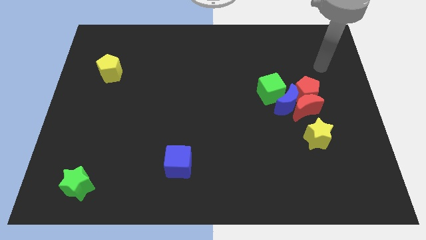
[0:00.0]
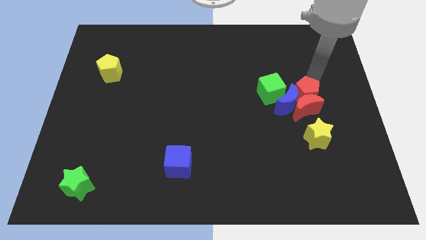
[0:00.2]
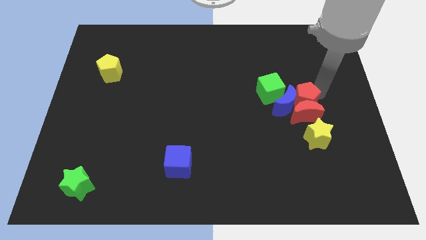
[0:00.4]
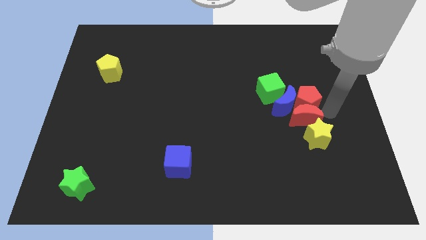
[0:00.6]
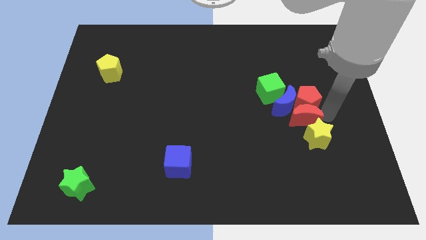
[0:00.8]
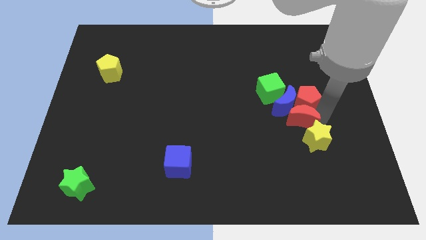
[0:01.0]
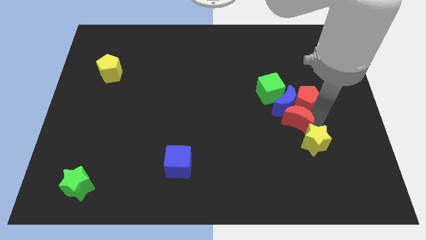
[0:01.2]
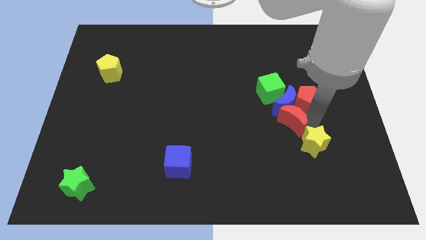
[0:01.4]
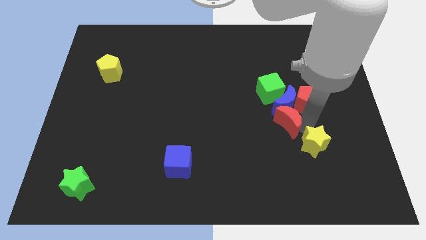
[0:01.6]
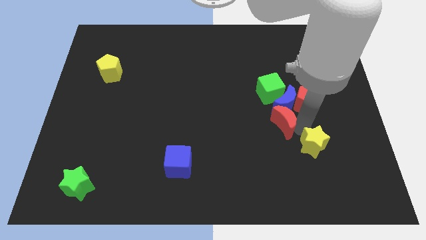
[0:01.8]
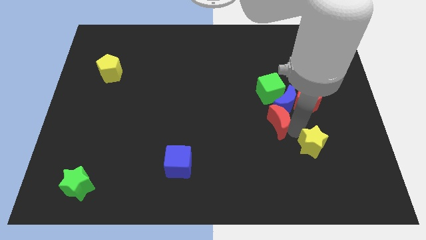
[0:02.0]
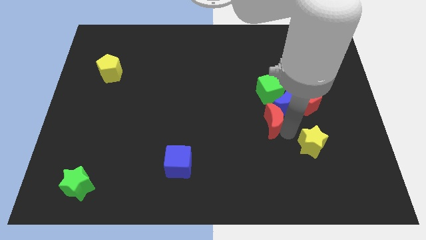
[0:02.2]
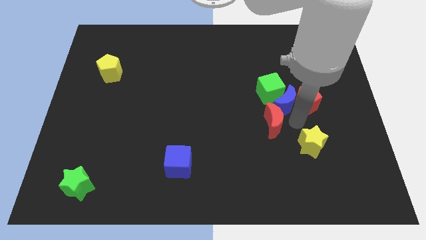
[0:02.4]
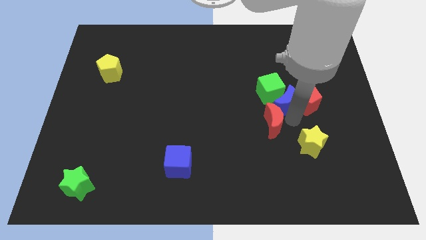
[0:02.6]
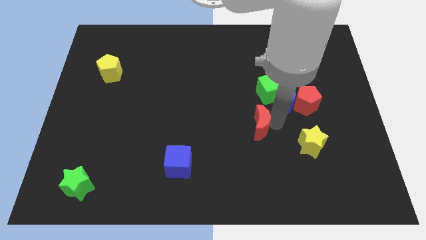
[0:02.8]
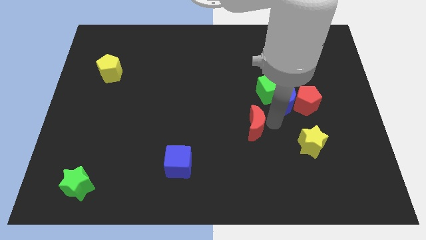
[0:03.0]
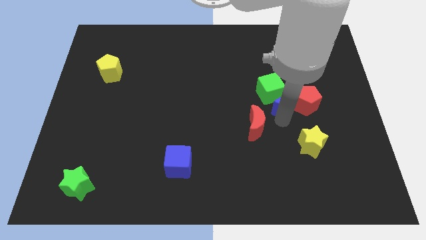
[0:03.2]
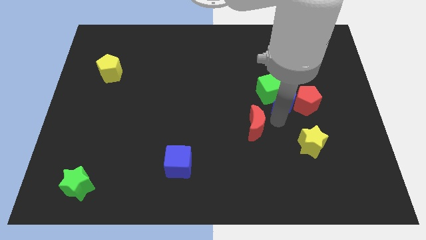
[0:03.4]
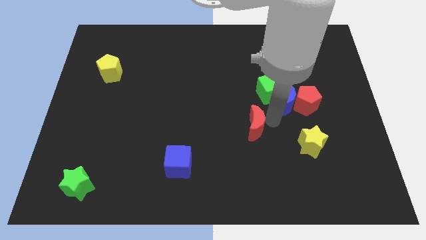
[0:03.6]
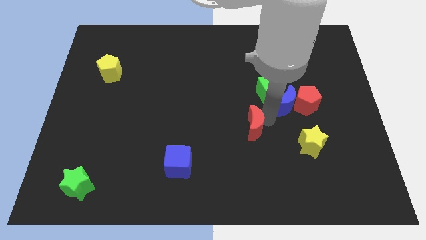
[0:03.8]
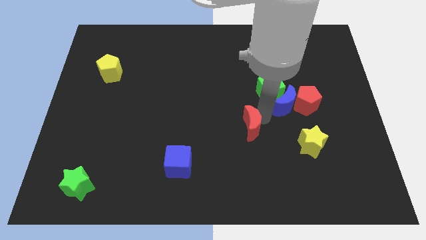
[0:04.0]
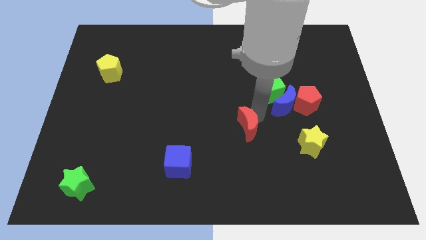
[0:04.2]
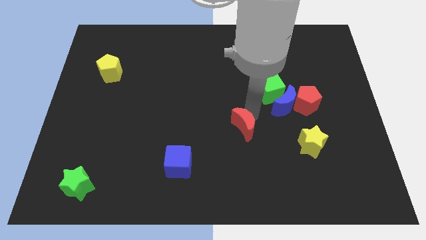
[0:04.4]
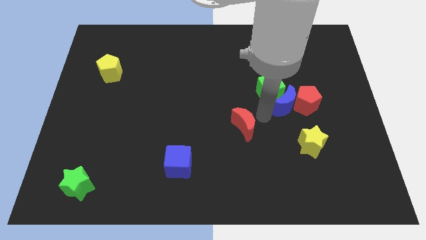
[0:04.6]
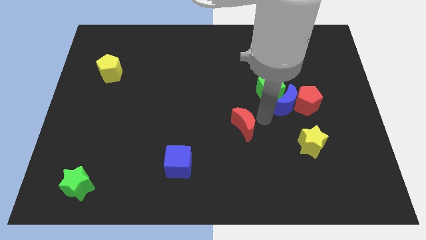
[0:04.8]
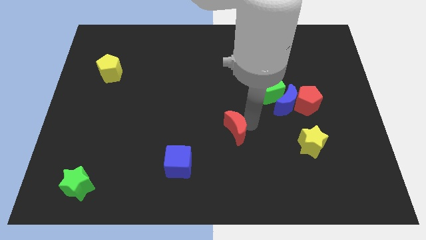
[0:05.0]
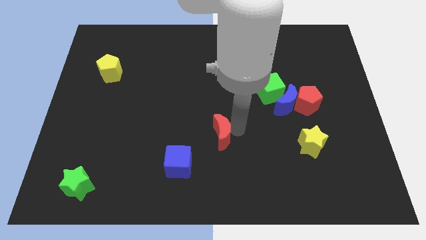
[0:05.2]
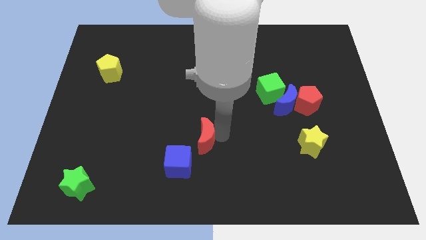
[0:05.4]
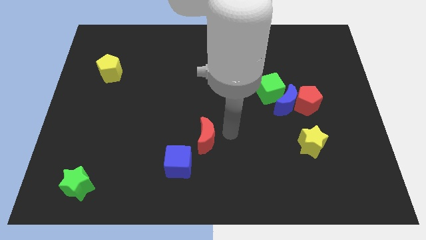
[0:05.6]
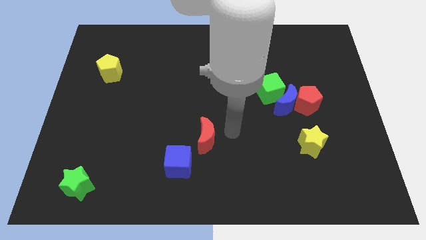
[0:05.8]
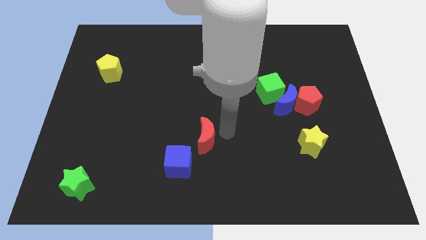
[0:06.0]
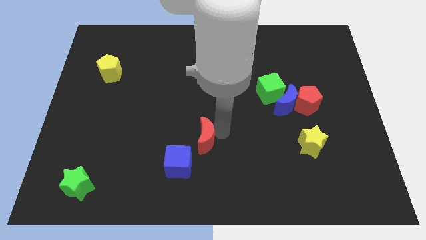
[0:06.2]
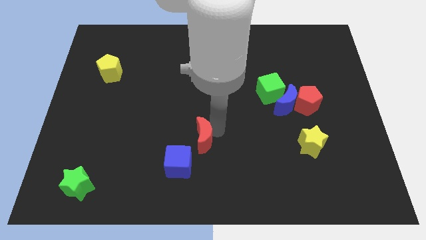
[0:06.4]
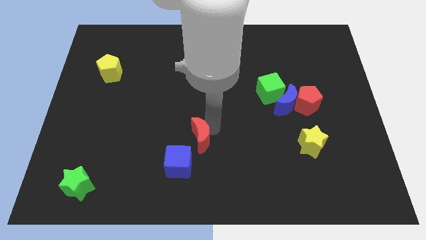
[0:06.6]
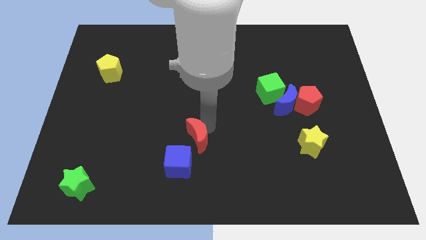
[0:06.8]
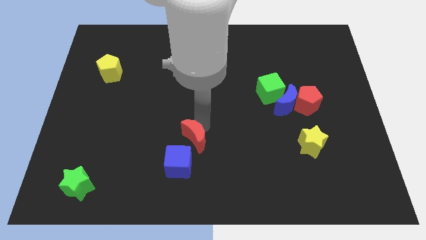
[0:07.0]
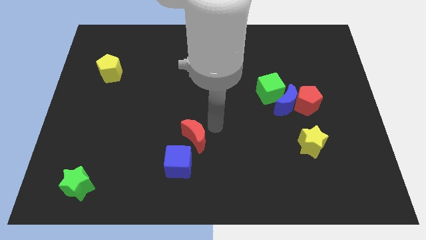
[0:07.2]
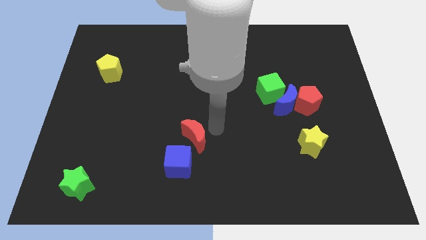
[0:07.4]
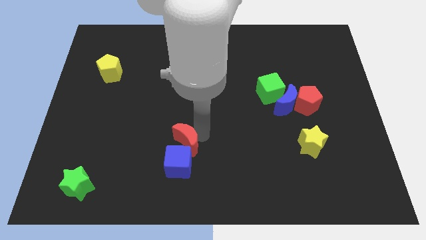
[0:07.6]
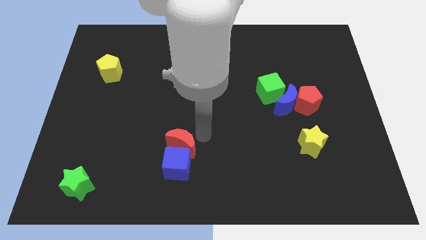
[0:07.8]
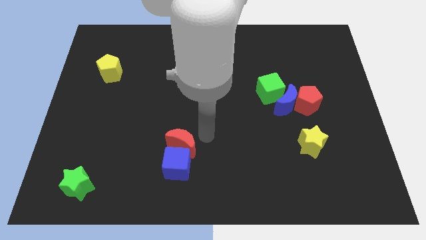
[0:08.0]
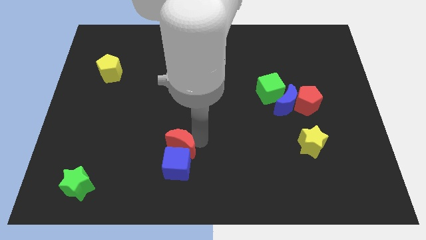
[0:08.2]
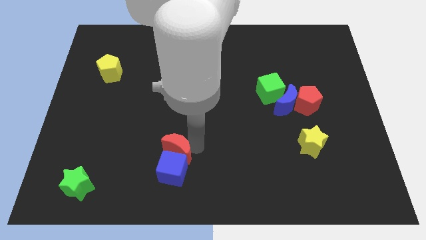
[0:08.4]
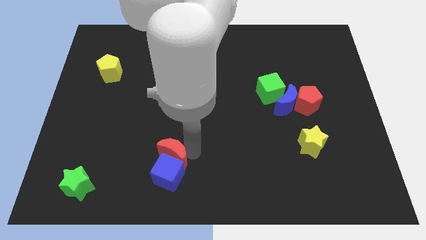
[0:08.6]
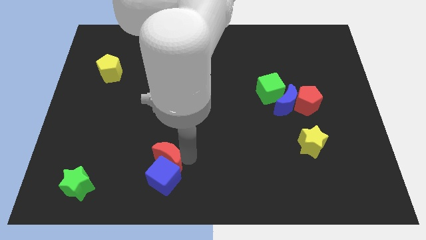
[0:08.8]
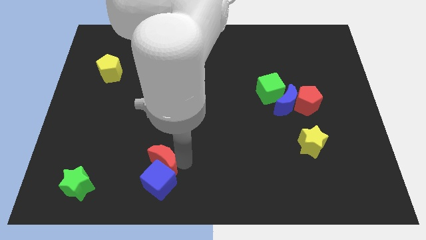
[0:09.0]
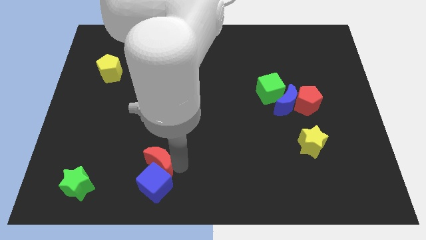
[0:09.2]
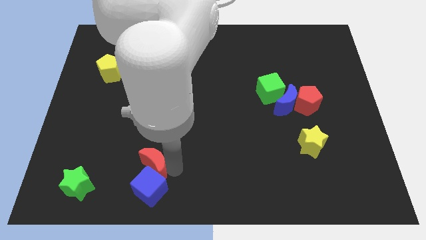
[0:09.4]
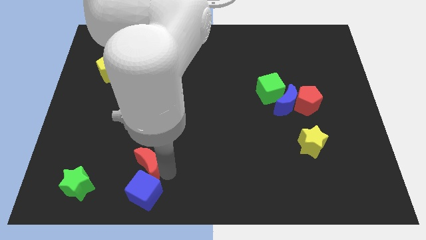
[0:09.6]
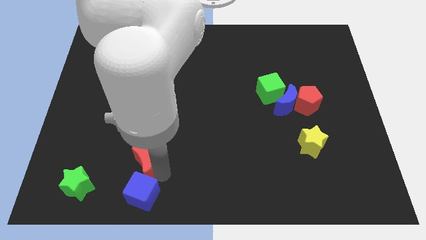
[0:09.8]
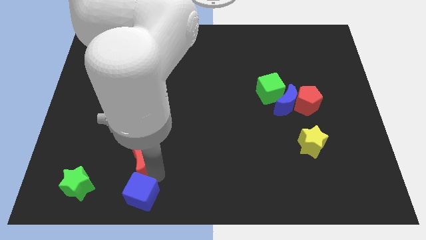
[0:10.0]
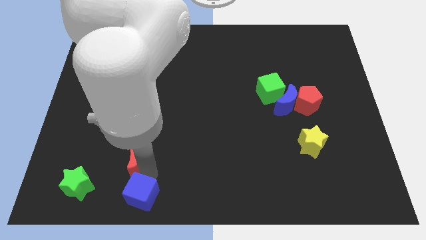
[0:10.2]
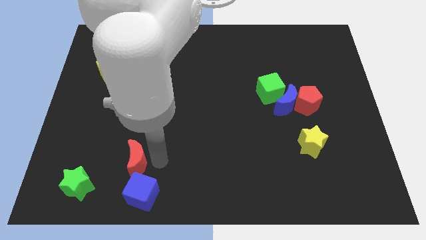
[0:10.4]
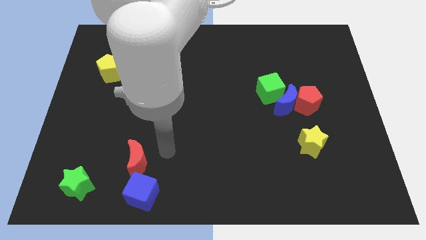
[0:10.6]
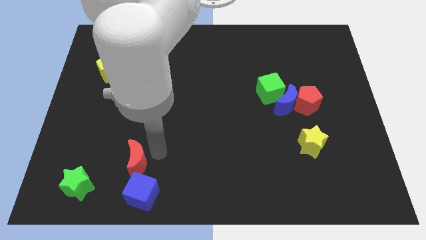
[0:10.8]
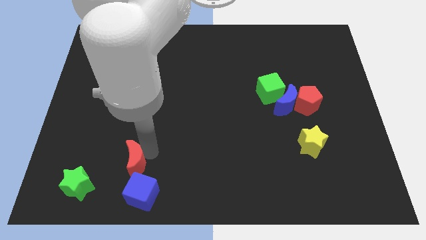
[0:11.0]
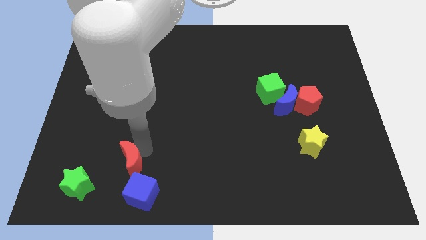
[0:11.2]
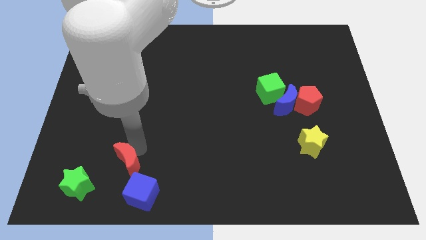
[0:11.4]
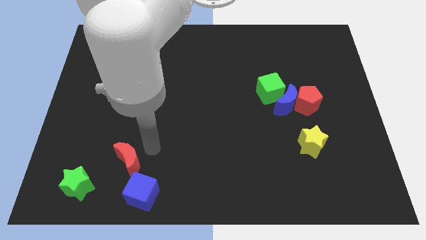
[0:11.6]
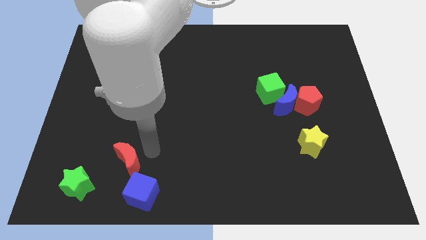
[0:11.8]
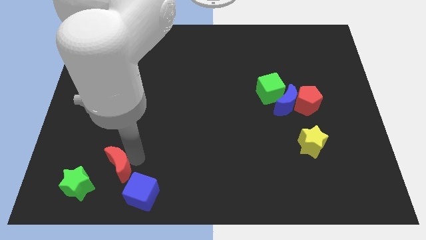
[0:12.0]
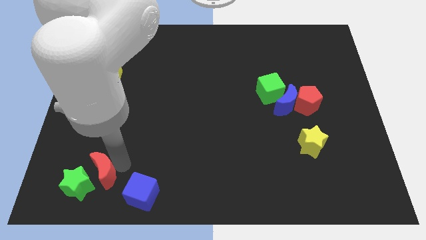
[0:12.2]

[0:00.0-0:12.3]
move the red moon to the green star

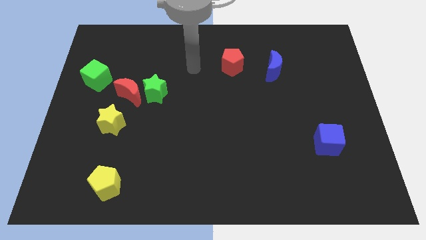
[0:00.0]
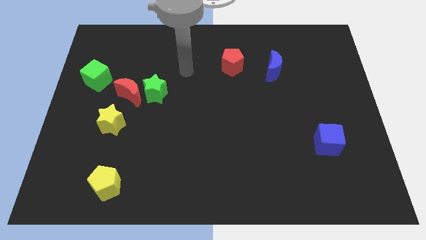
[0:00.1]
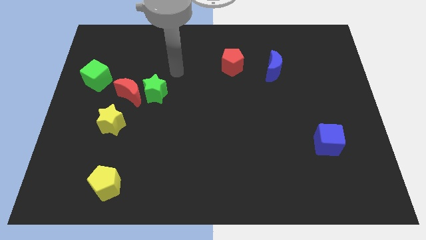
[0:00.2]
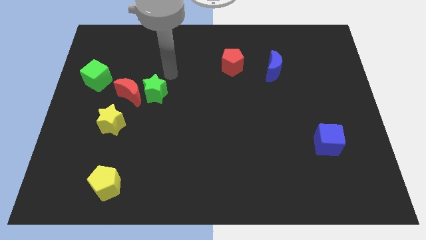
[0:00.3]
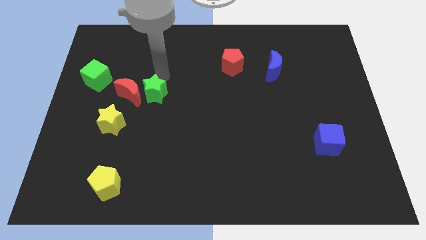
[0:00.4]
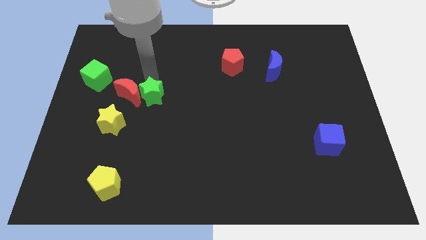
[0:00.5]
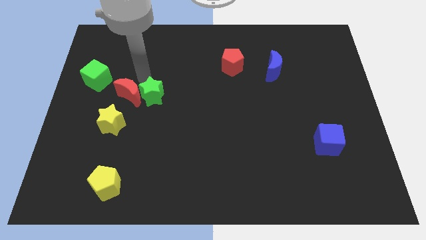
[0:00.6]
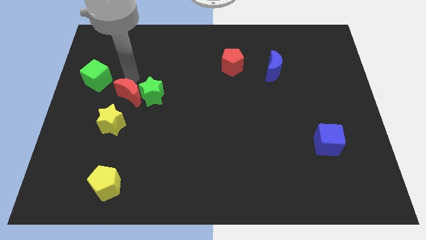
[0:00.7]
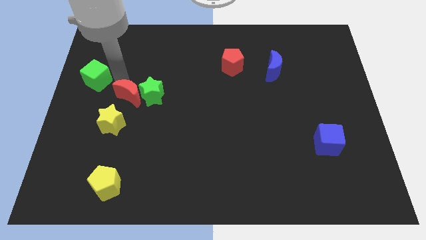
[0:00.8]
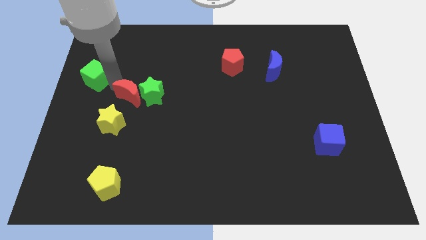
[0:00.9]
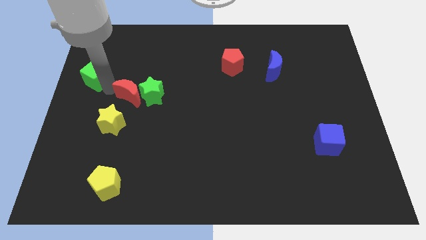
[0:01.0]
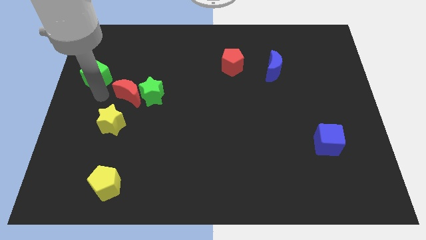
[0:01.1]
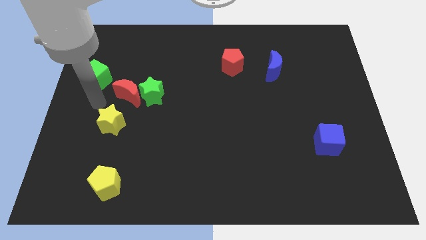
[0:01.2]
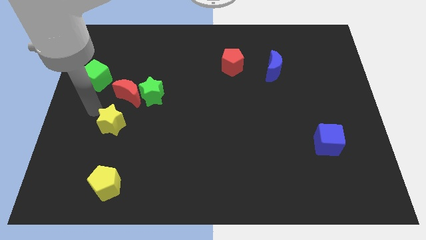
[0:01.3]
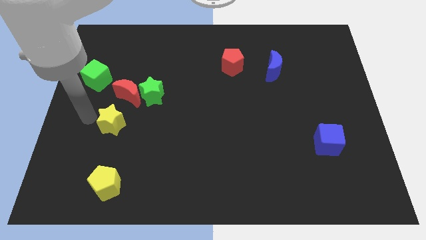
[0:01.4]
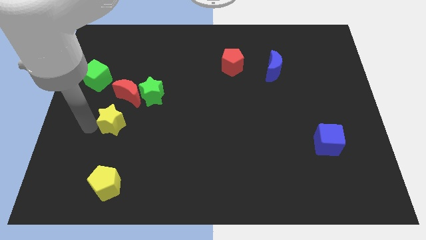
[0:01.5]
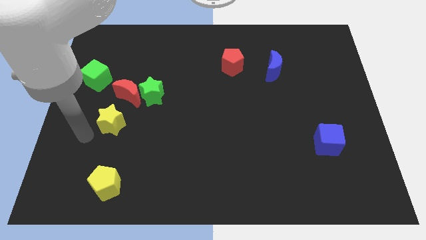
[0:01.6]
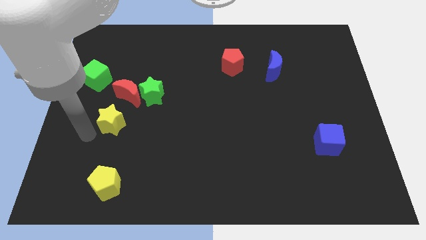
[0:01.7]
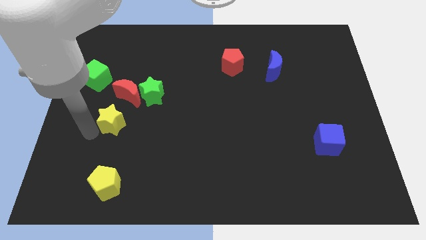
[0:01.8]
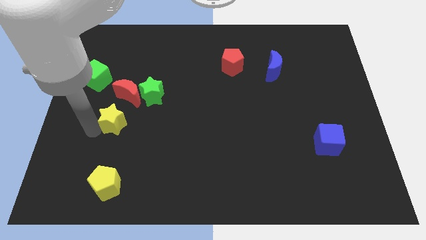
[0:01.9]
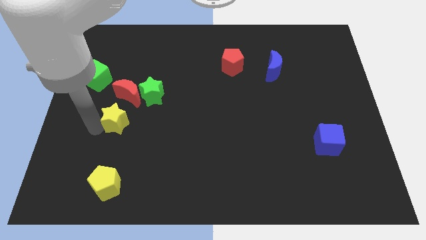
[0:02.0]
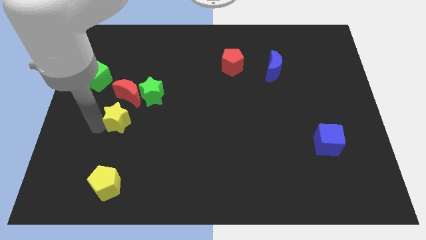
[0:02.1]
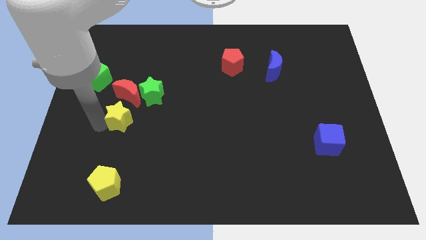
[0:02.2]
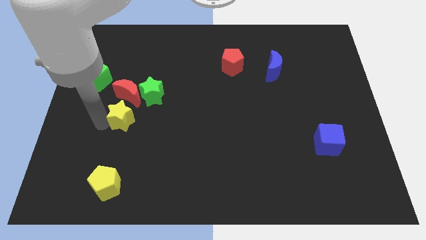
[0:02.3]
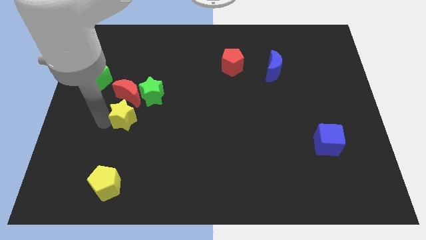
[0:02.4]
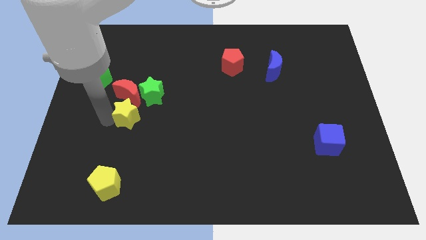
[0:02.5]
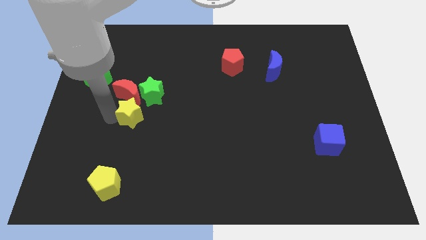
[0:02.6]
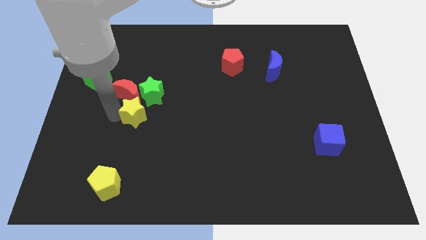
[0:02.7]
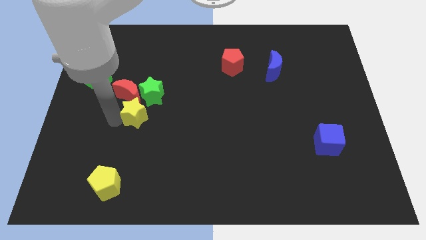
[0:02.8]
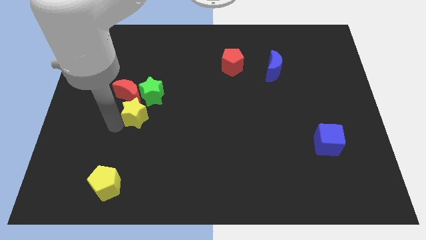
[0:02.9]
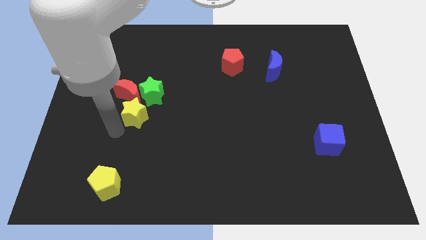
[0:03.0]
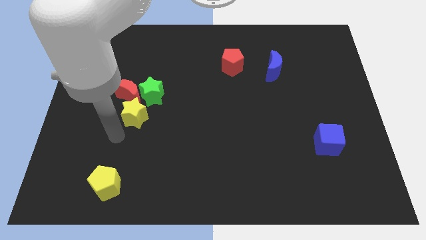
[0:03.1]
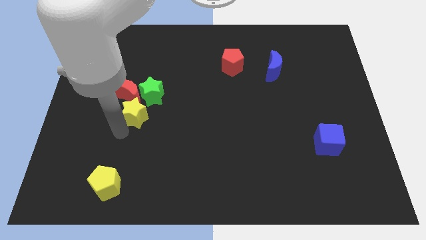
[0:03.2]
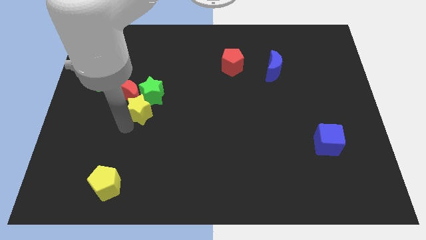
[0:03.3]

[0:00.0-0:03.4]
put the yellow star close to the green star
